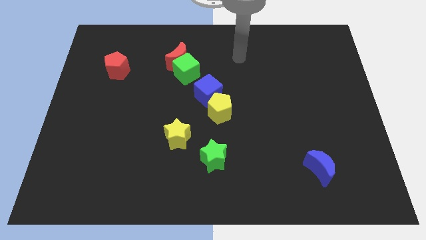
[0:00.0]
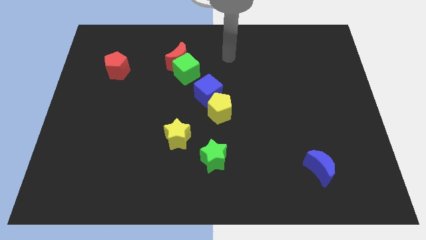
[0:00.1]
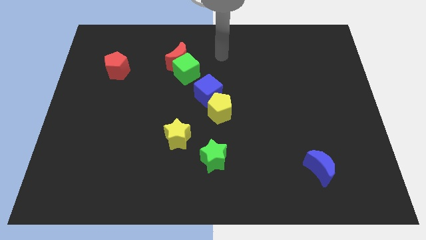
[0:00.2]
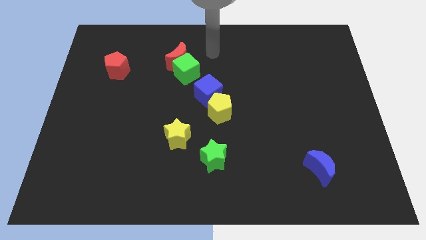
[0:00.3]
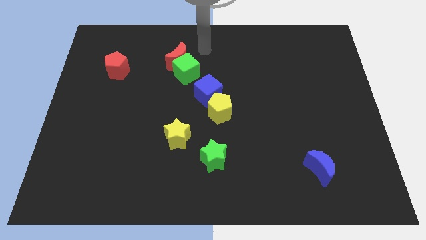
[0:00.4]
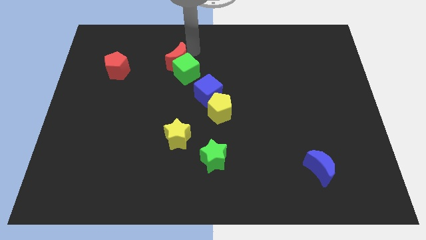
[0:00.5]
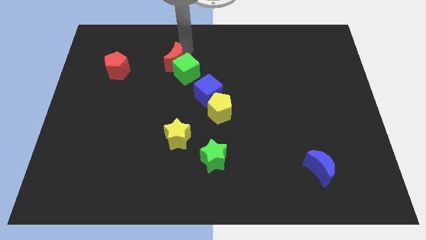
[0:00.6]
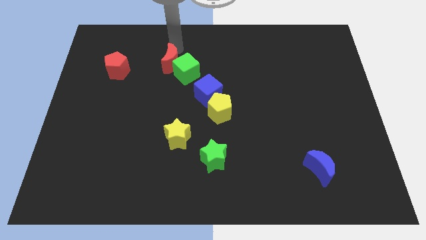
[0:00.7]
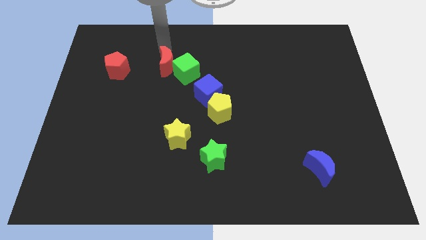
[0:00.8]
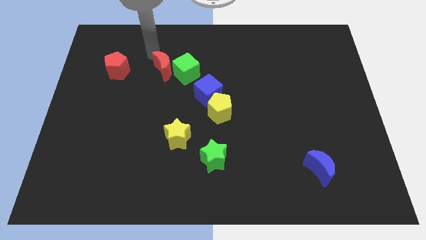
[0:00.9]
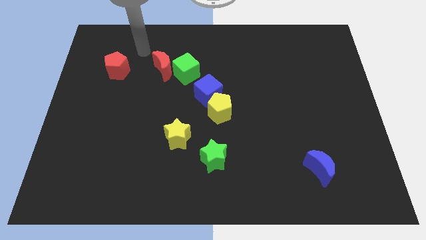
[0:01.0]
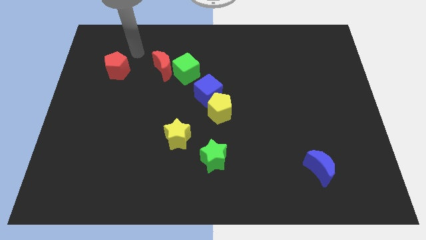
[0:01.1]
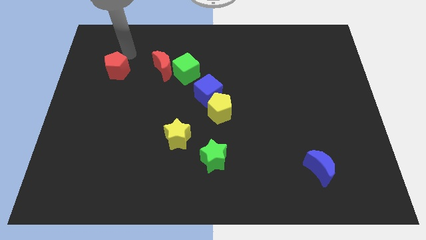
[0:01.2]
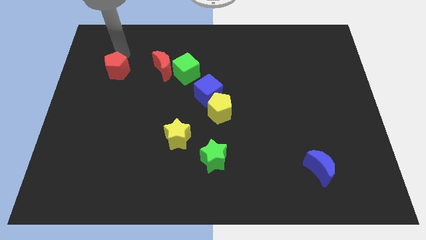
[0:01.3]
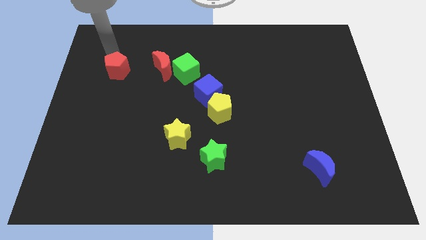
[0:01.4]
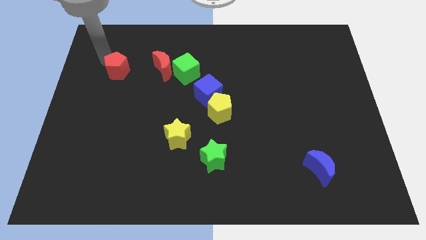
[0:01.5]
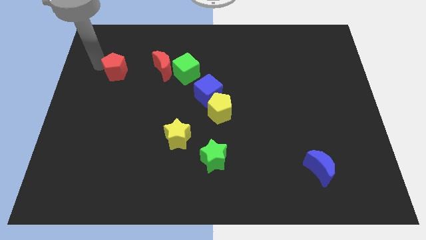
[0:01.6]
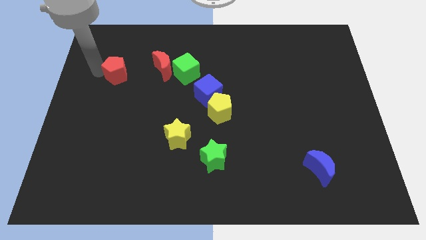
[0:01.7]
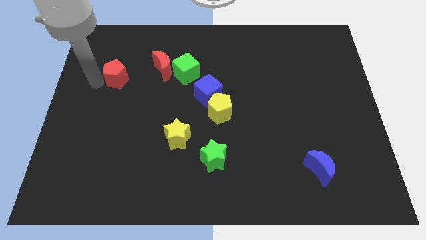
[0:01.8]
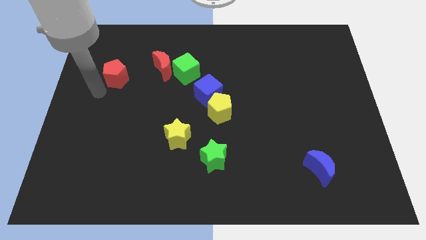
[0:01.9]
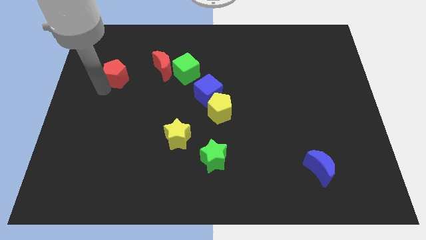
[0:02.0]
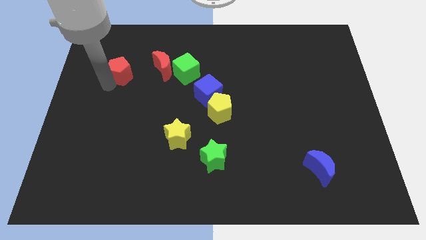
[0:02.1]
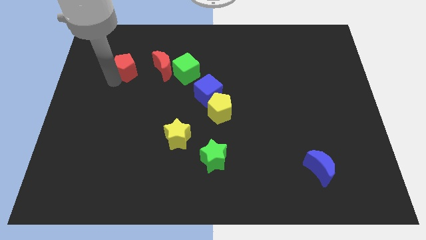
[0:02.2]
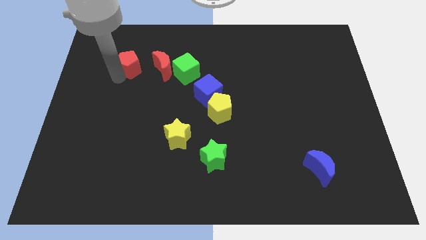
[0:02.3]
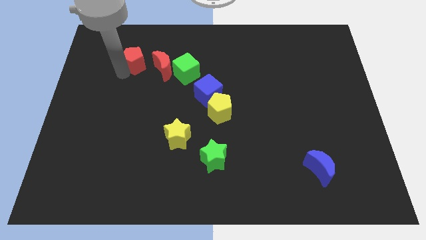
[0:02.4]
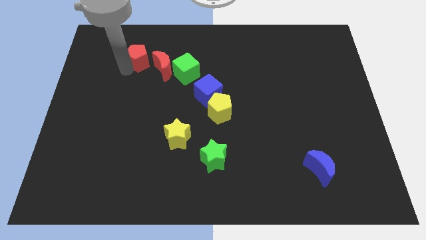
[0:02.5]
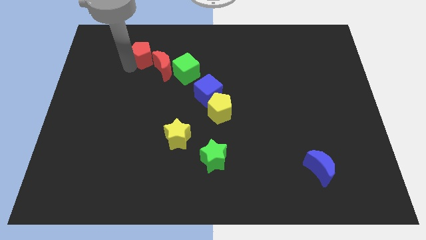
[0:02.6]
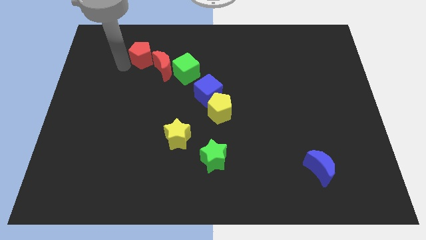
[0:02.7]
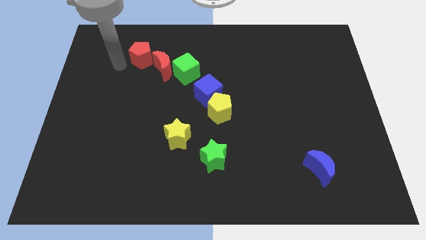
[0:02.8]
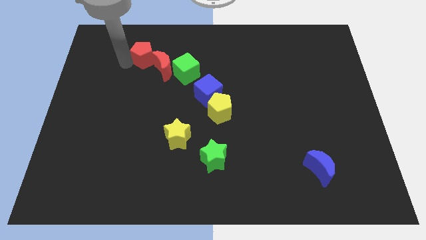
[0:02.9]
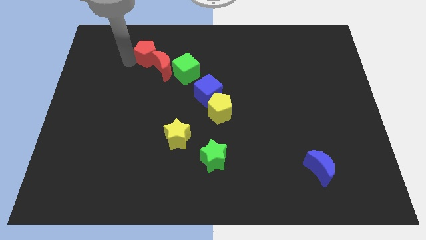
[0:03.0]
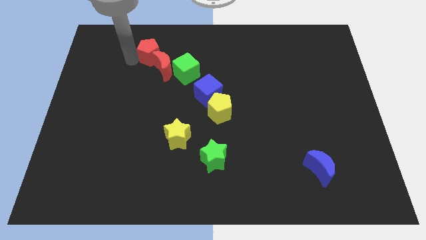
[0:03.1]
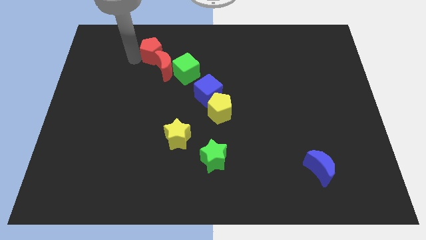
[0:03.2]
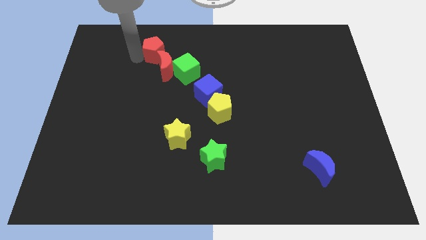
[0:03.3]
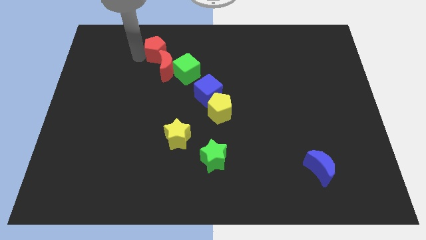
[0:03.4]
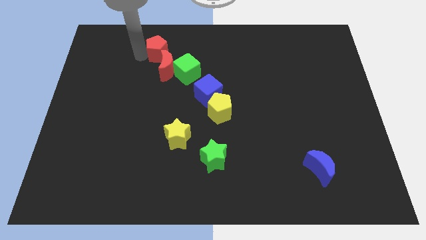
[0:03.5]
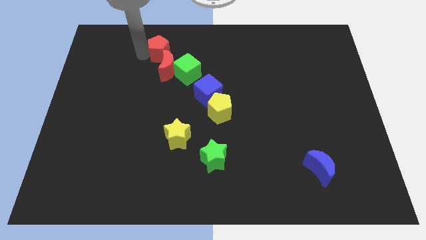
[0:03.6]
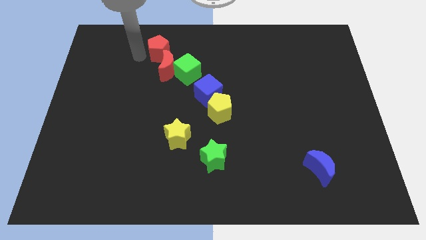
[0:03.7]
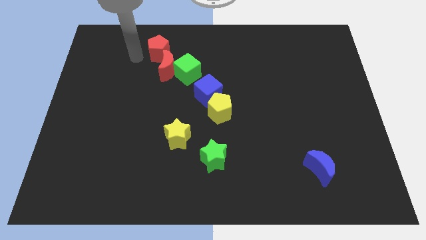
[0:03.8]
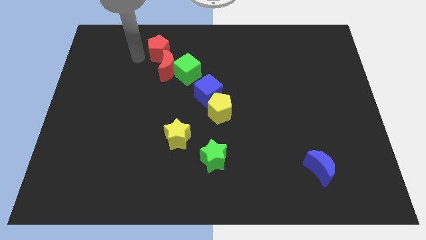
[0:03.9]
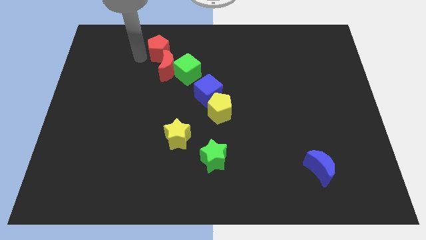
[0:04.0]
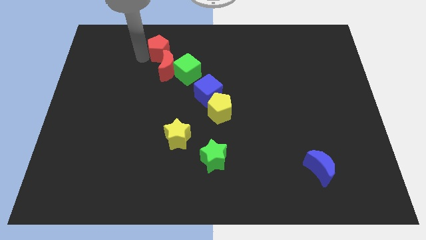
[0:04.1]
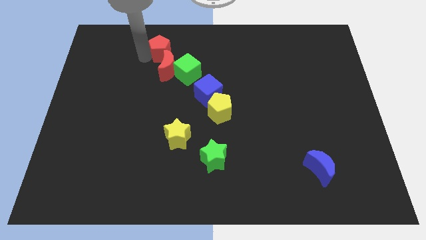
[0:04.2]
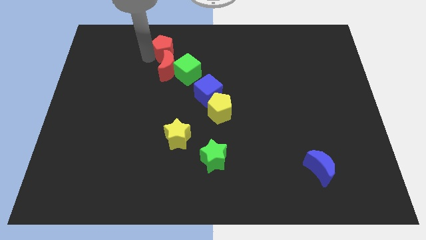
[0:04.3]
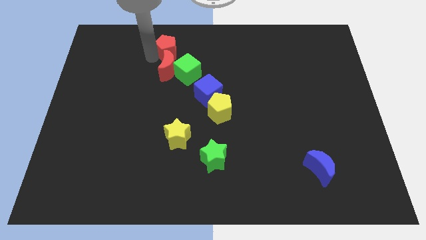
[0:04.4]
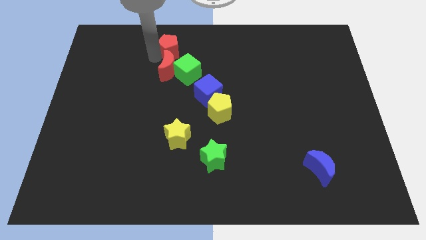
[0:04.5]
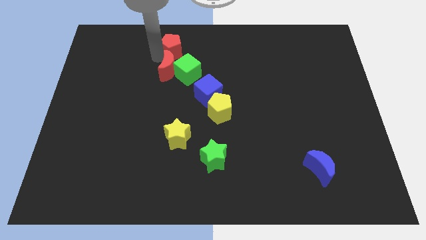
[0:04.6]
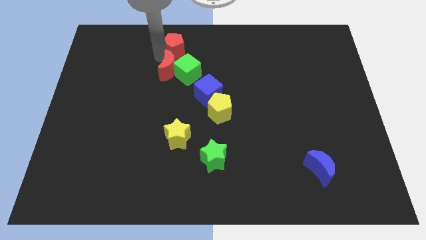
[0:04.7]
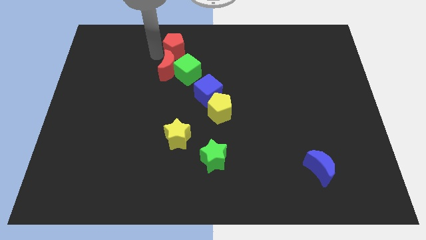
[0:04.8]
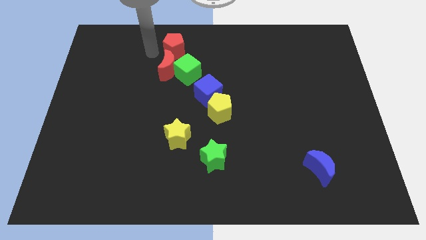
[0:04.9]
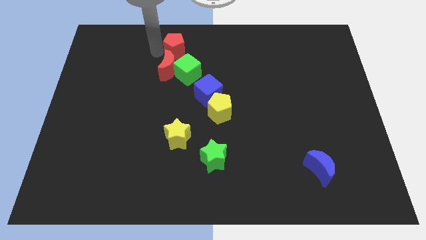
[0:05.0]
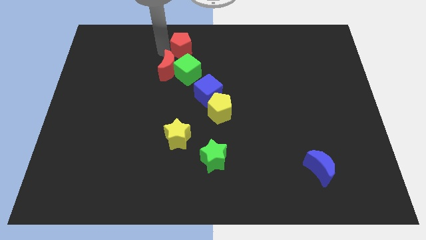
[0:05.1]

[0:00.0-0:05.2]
put the red pentagon to the towards your base

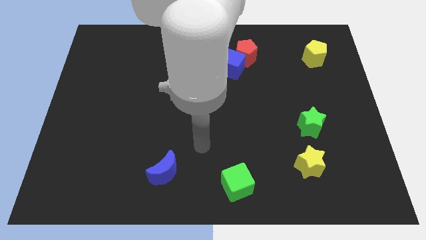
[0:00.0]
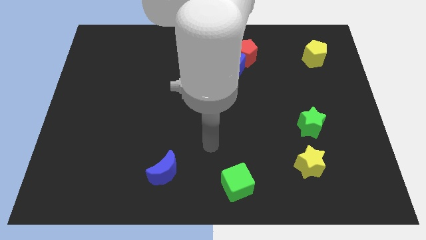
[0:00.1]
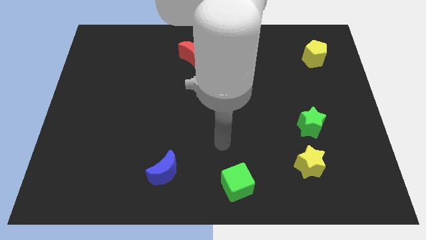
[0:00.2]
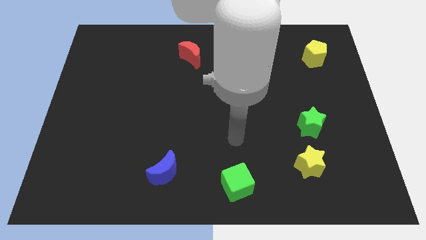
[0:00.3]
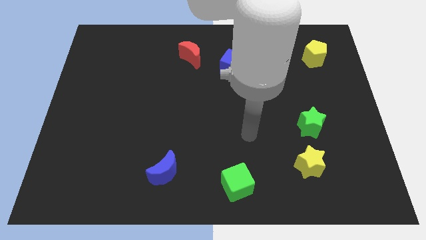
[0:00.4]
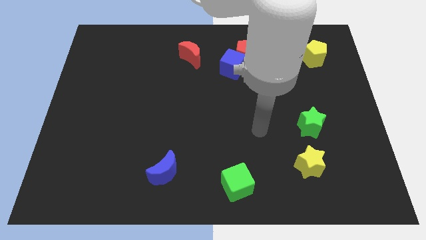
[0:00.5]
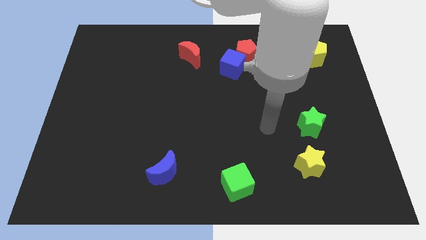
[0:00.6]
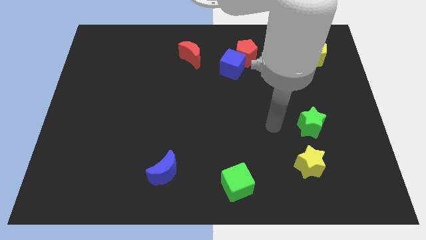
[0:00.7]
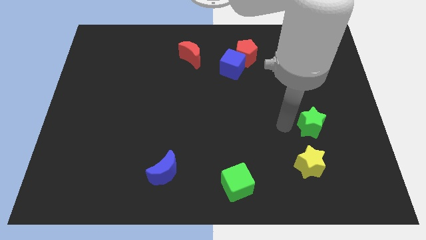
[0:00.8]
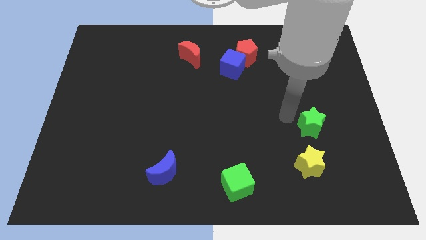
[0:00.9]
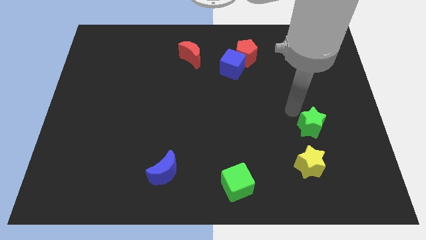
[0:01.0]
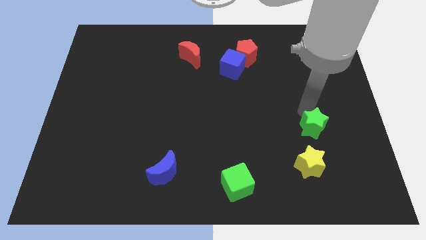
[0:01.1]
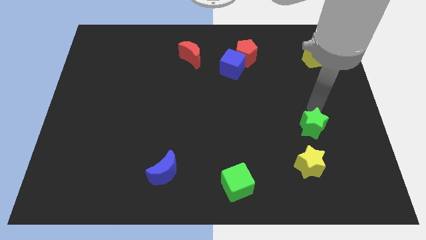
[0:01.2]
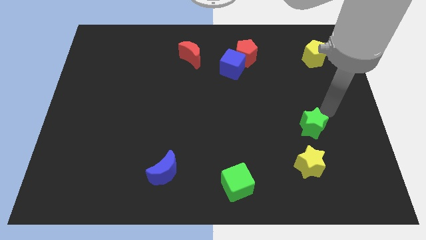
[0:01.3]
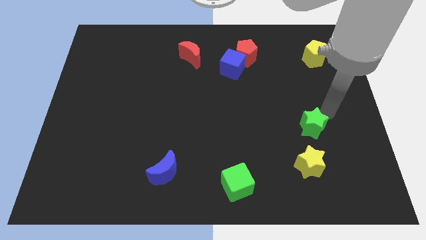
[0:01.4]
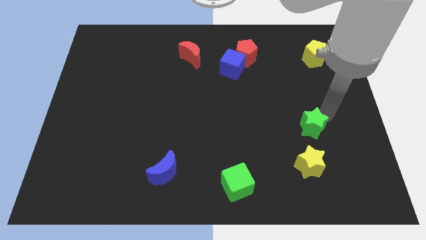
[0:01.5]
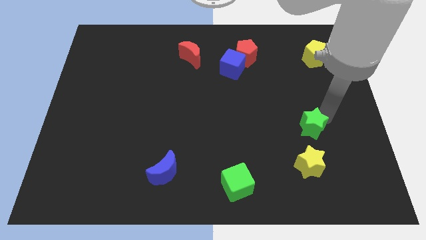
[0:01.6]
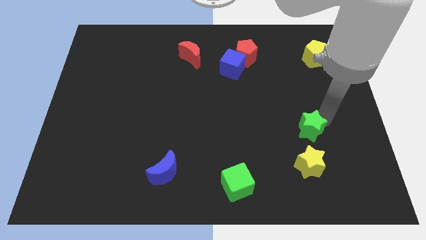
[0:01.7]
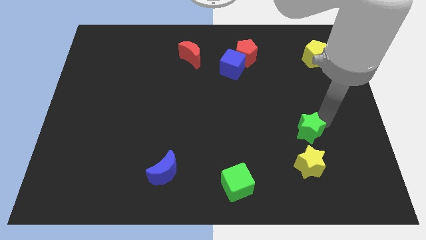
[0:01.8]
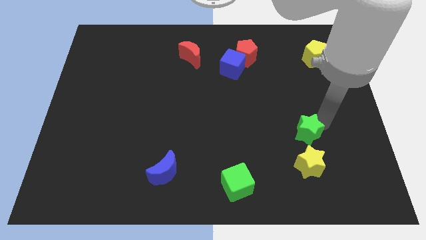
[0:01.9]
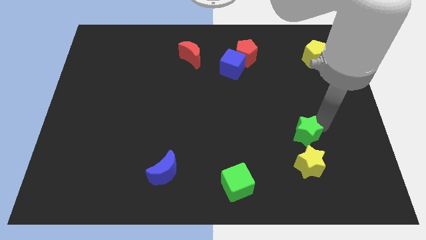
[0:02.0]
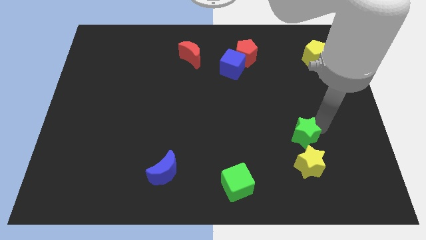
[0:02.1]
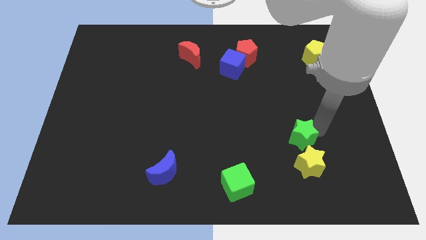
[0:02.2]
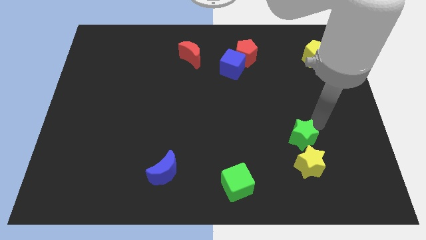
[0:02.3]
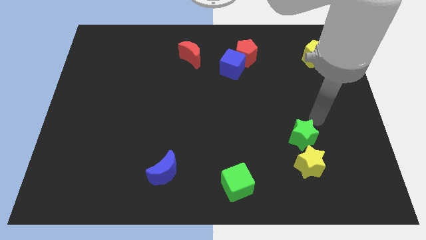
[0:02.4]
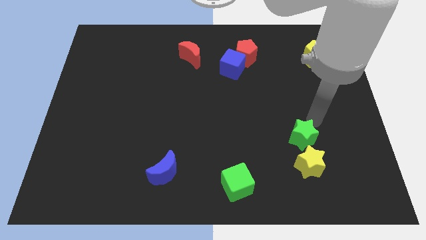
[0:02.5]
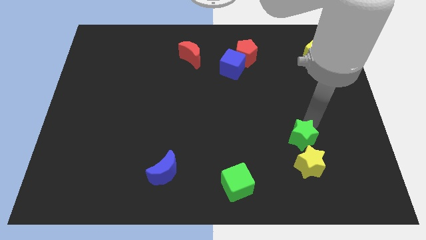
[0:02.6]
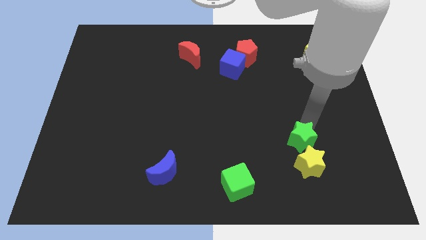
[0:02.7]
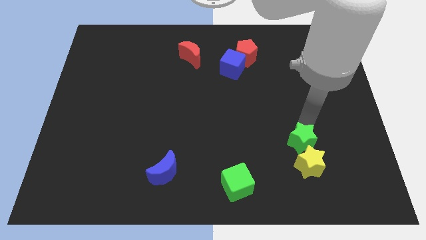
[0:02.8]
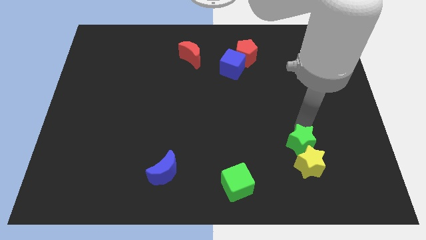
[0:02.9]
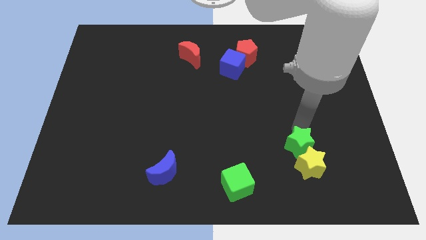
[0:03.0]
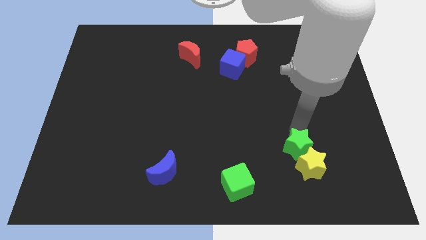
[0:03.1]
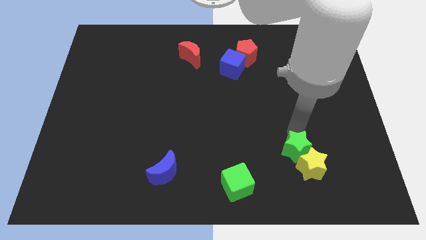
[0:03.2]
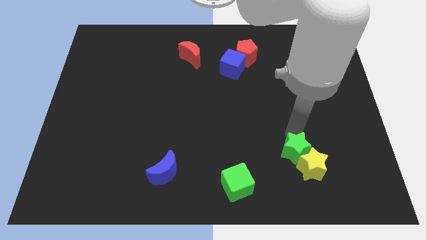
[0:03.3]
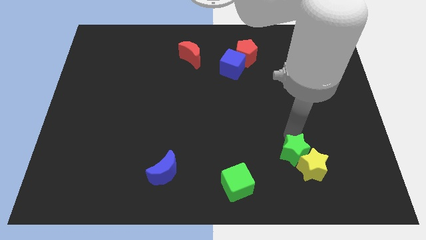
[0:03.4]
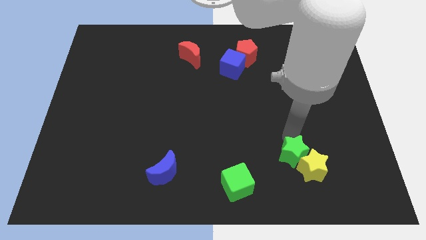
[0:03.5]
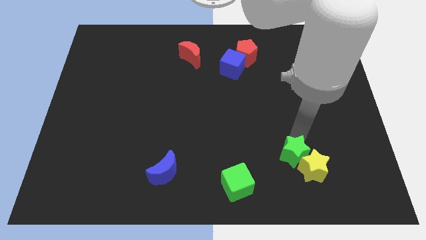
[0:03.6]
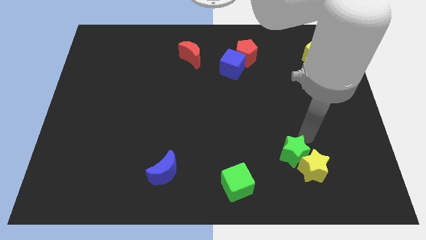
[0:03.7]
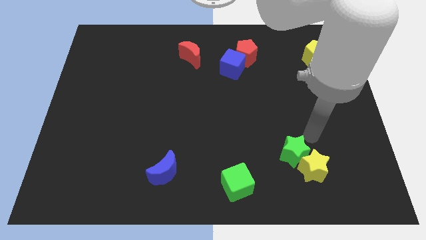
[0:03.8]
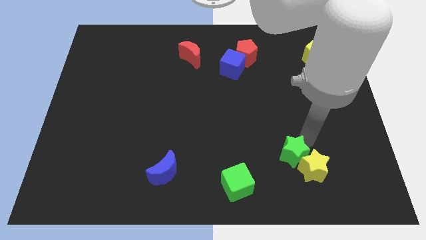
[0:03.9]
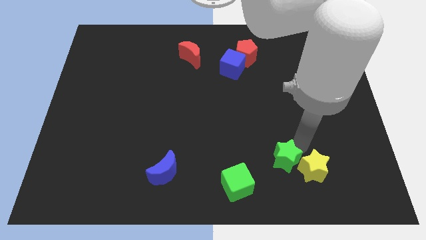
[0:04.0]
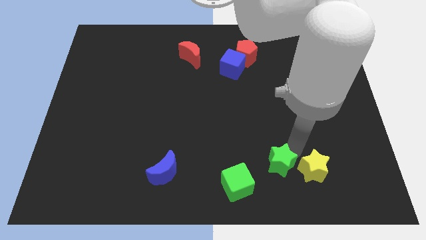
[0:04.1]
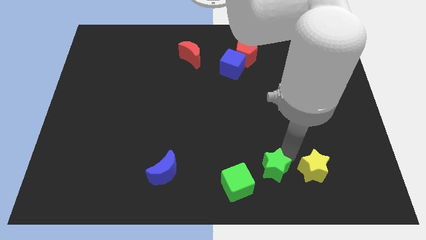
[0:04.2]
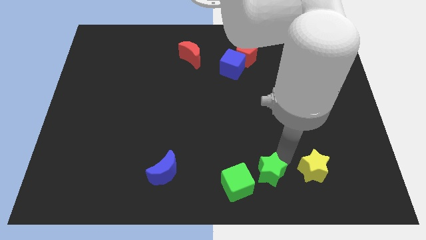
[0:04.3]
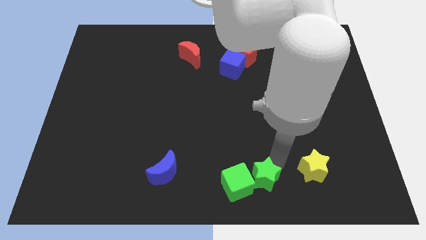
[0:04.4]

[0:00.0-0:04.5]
slide the green star to the bottom
